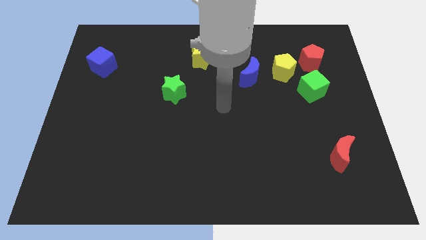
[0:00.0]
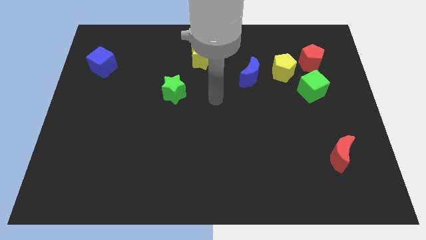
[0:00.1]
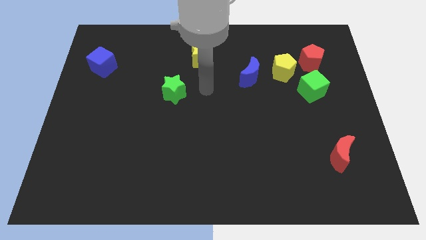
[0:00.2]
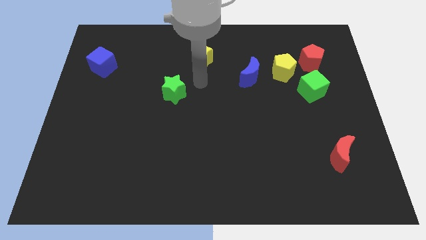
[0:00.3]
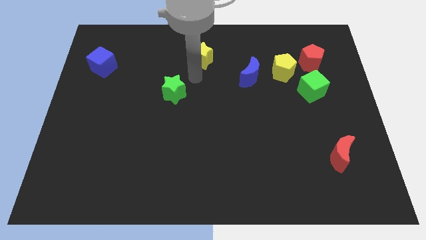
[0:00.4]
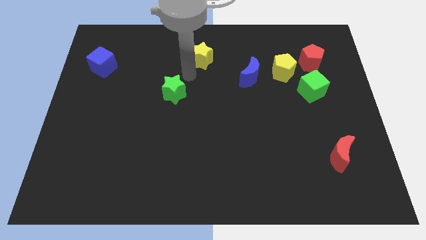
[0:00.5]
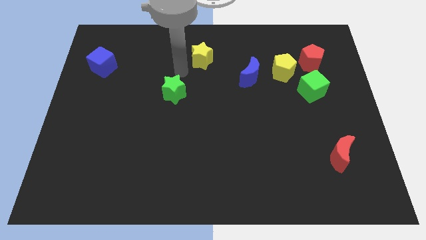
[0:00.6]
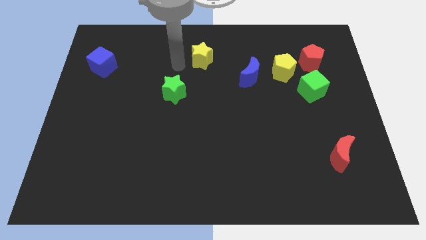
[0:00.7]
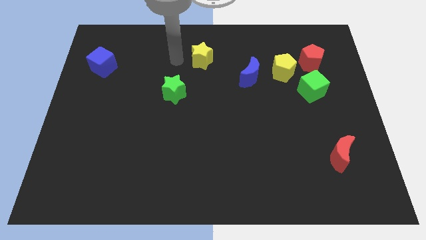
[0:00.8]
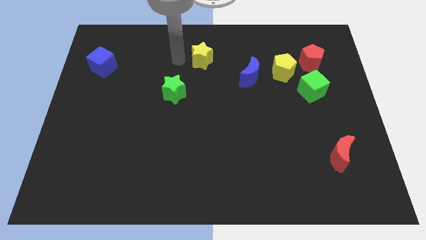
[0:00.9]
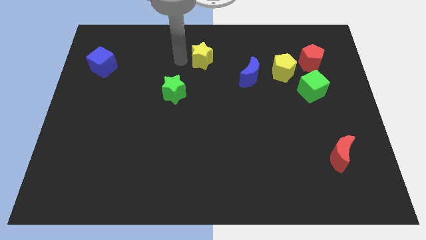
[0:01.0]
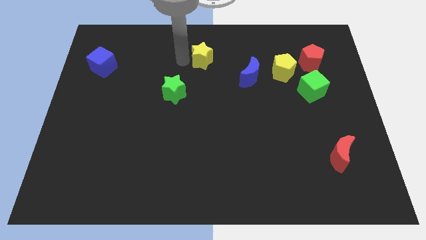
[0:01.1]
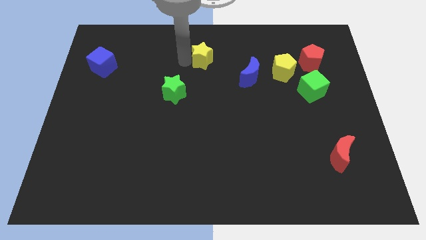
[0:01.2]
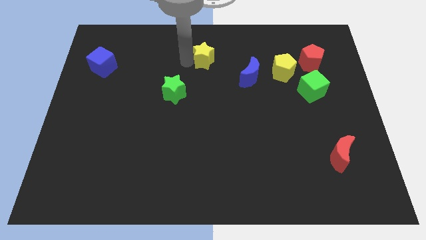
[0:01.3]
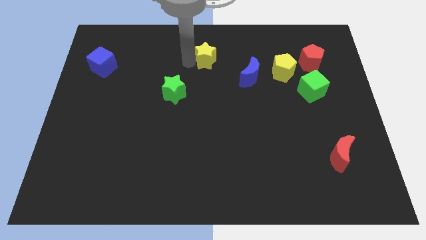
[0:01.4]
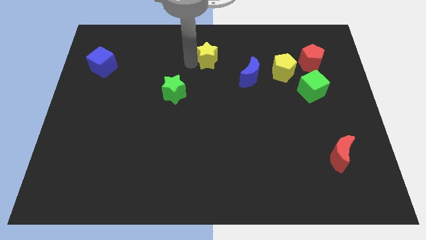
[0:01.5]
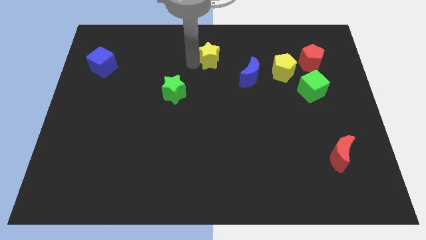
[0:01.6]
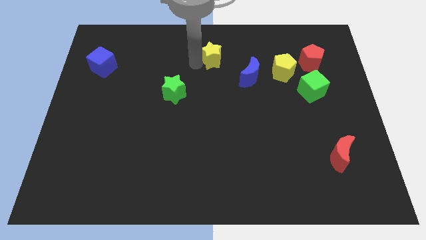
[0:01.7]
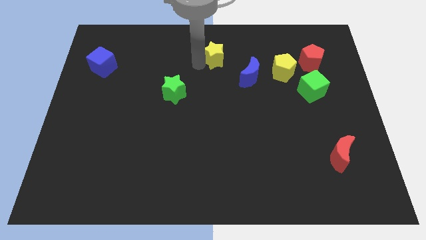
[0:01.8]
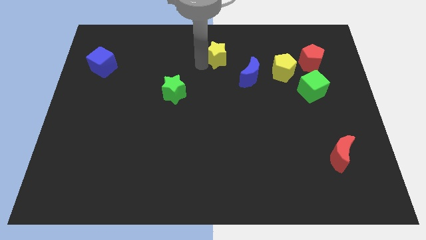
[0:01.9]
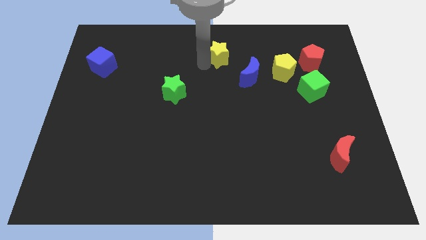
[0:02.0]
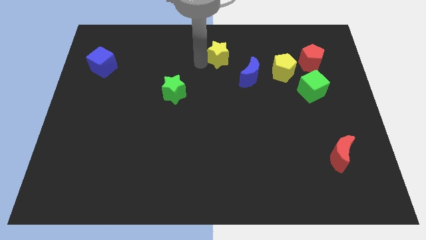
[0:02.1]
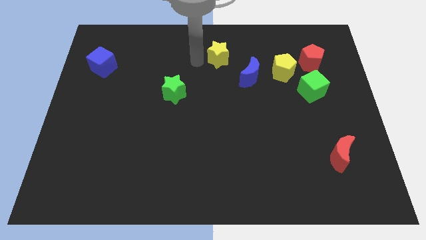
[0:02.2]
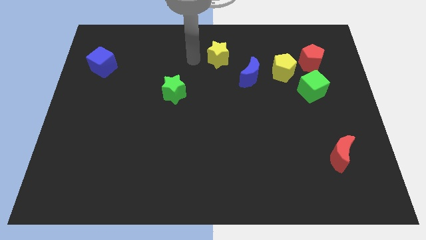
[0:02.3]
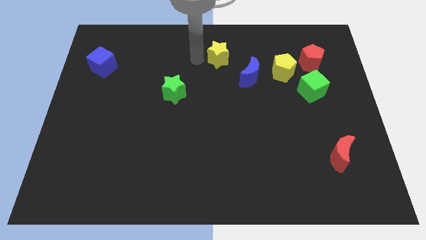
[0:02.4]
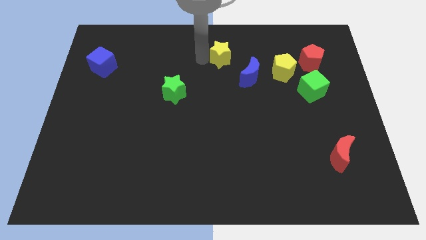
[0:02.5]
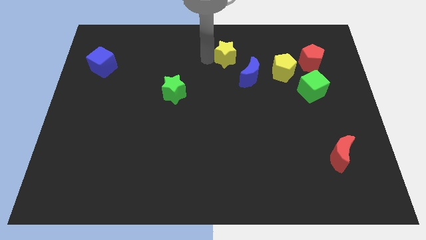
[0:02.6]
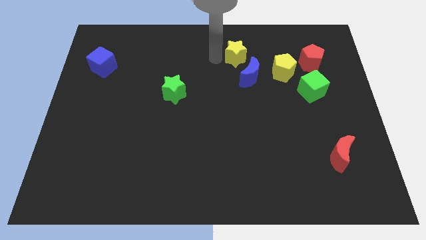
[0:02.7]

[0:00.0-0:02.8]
slightly push the yellow star to the right

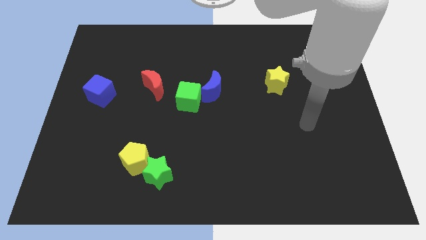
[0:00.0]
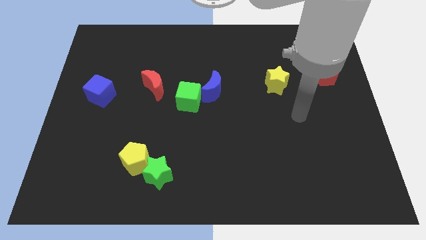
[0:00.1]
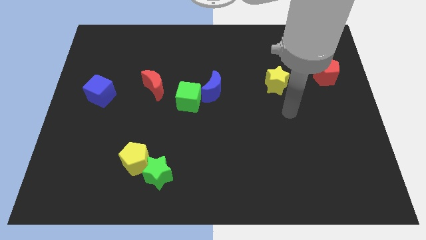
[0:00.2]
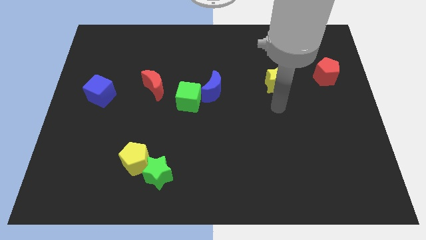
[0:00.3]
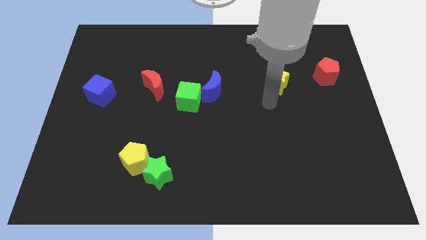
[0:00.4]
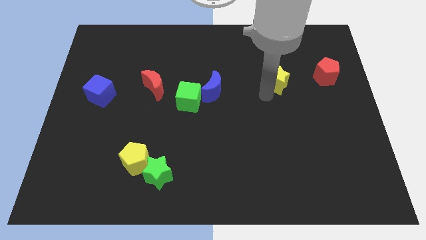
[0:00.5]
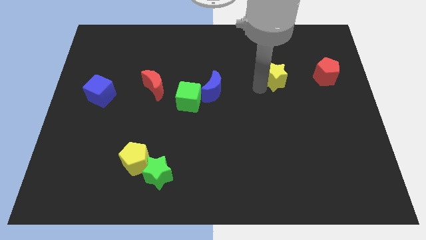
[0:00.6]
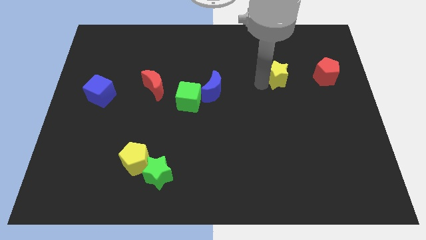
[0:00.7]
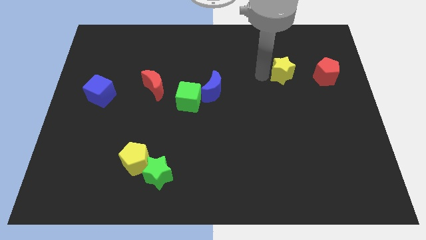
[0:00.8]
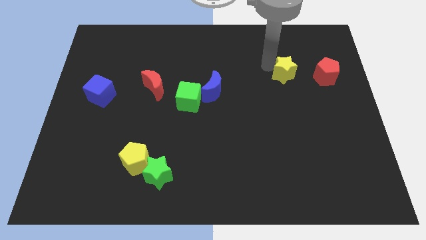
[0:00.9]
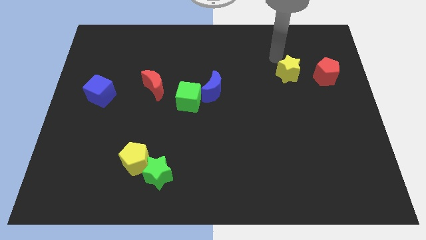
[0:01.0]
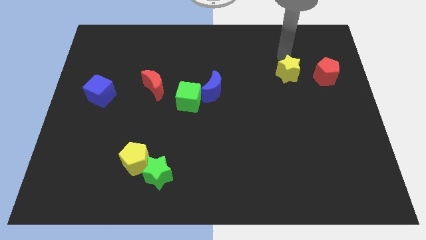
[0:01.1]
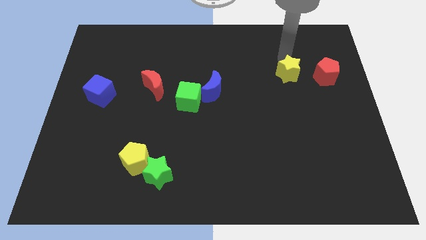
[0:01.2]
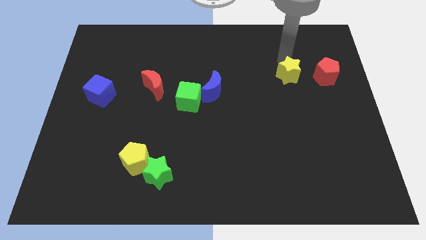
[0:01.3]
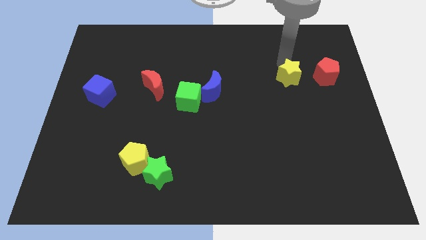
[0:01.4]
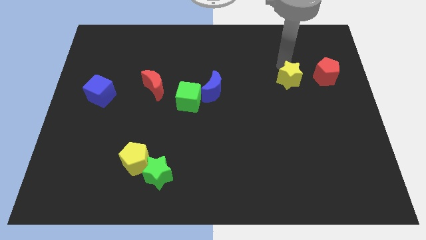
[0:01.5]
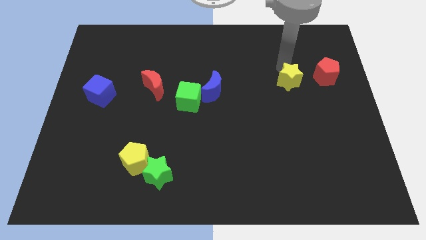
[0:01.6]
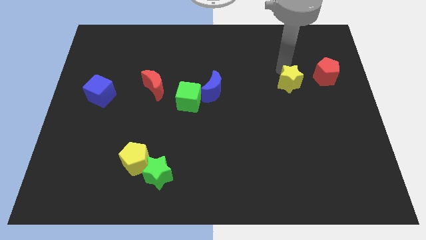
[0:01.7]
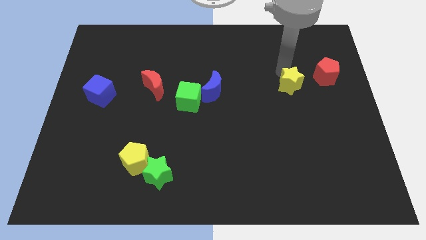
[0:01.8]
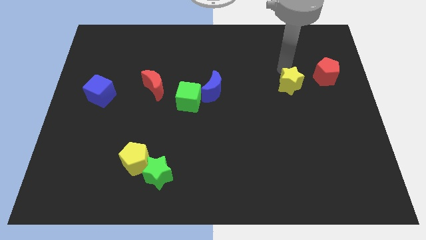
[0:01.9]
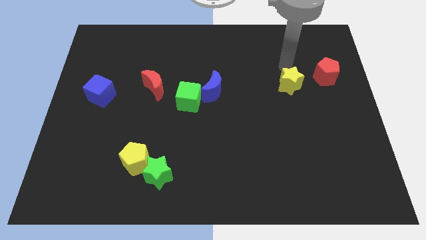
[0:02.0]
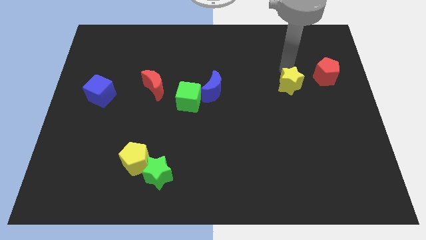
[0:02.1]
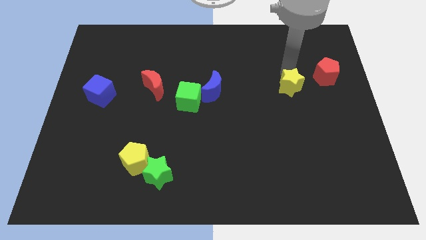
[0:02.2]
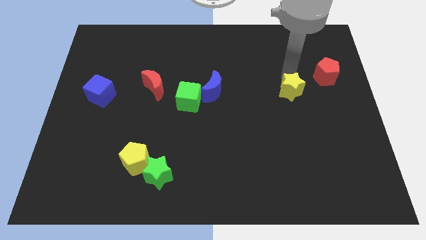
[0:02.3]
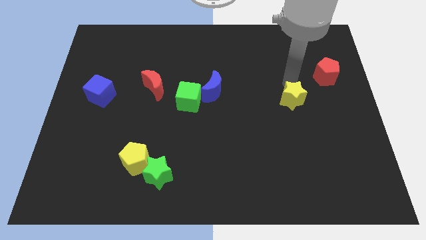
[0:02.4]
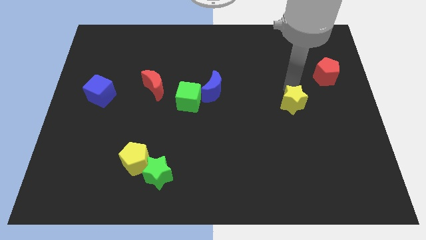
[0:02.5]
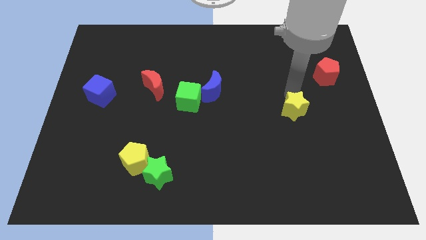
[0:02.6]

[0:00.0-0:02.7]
move the yellow star downwards slightly

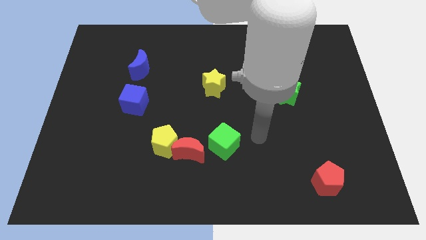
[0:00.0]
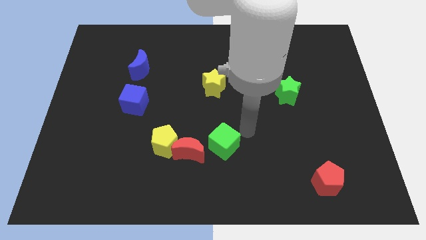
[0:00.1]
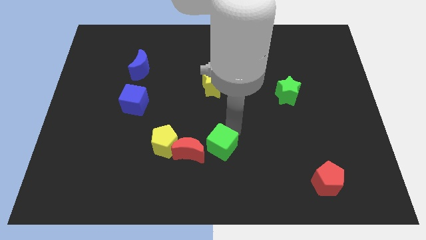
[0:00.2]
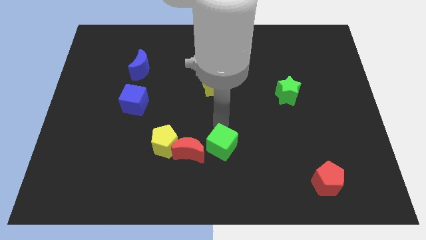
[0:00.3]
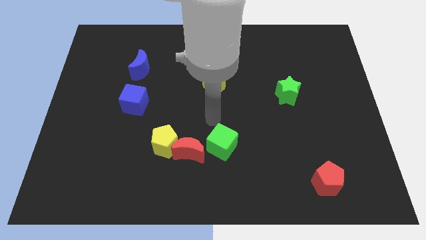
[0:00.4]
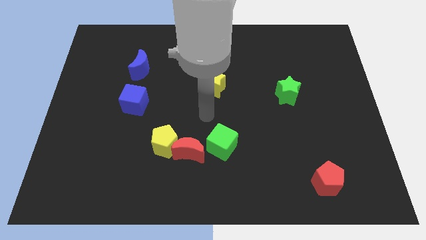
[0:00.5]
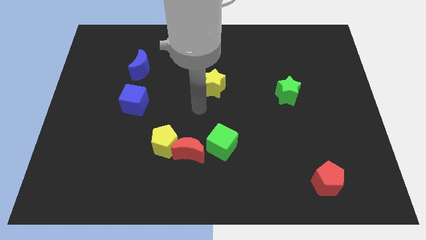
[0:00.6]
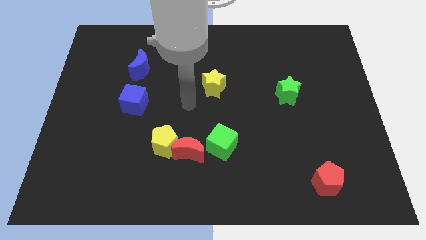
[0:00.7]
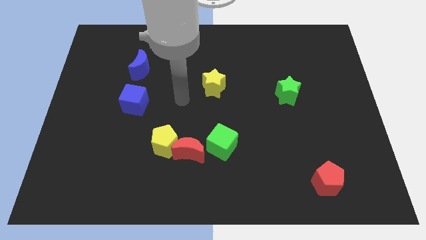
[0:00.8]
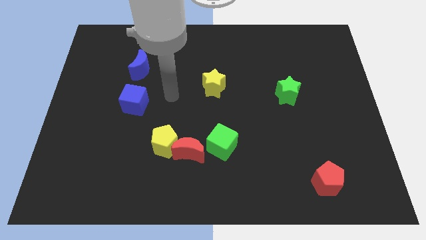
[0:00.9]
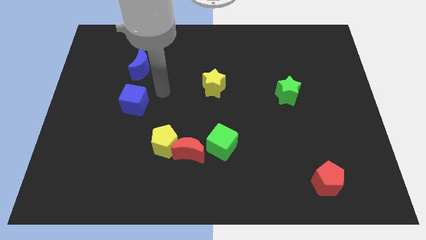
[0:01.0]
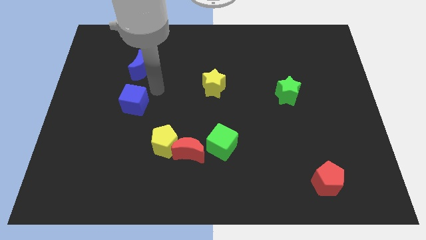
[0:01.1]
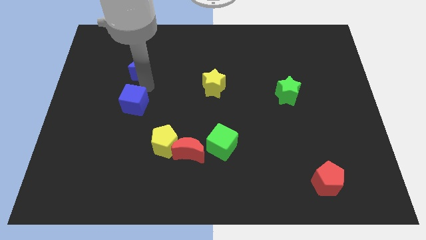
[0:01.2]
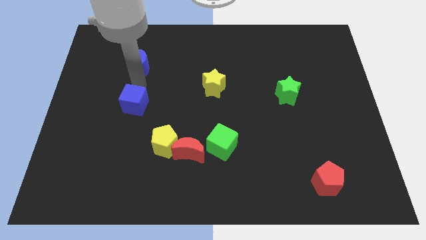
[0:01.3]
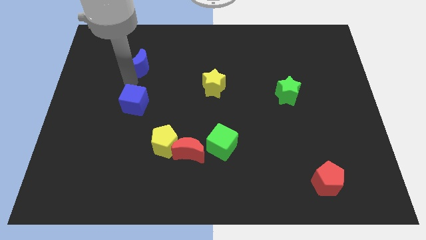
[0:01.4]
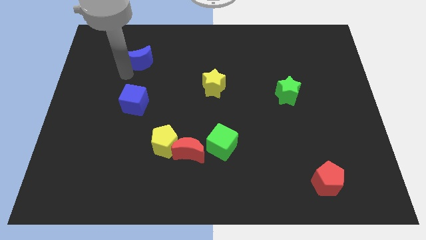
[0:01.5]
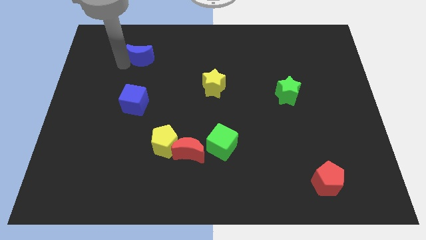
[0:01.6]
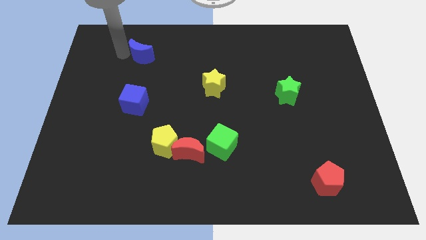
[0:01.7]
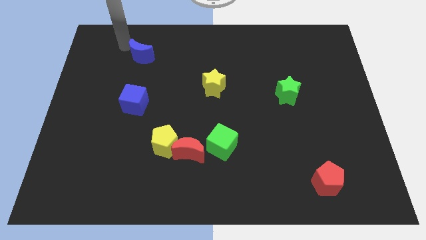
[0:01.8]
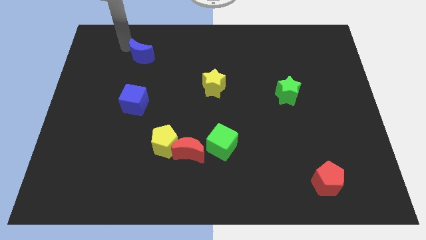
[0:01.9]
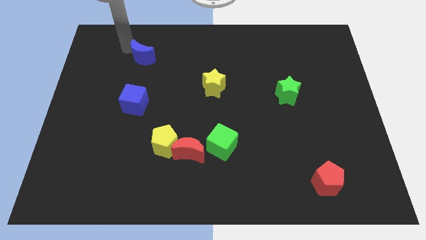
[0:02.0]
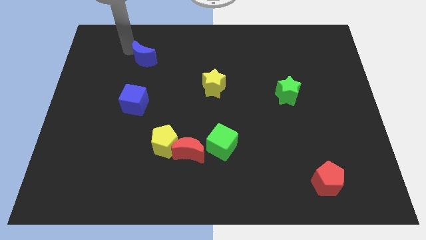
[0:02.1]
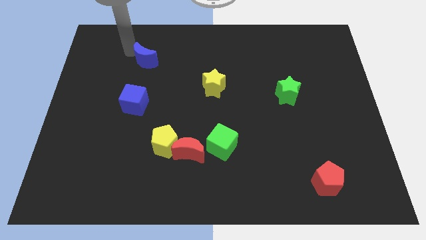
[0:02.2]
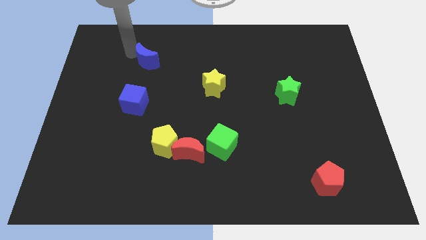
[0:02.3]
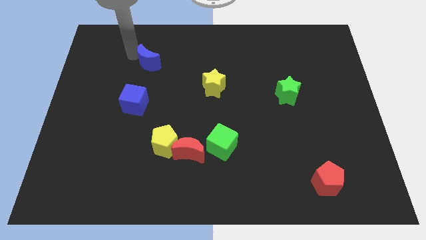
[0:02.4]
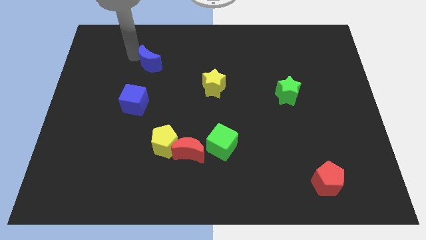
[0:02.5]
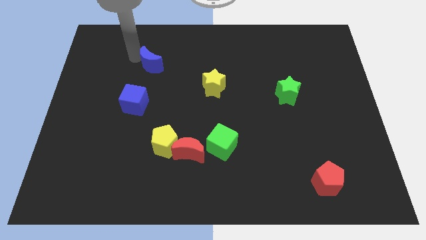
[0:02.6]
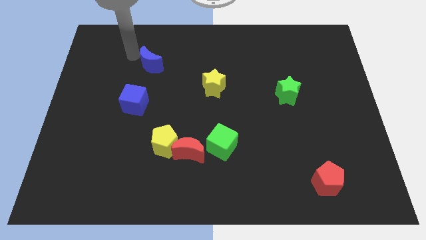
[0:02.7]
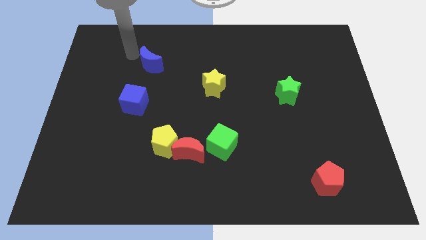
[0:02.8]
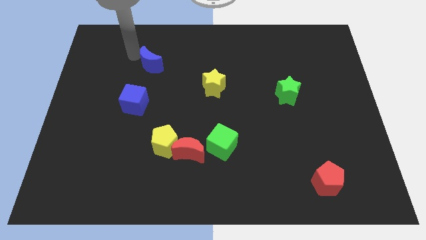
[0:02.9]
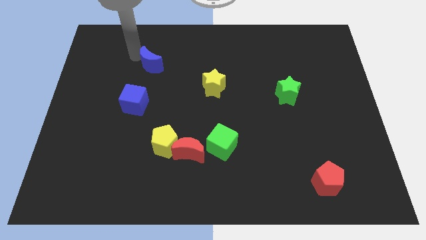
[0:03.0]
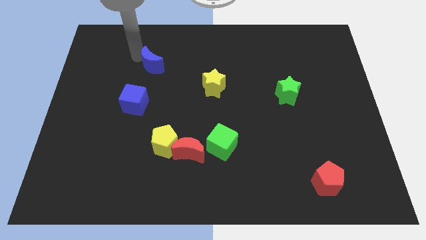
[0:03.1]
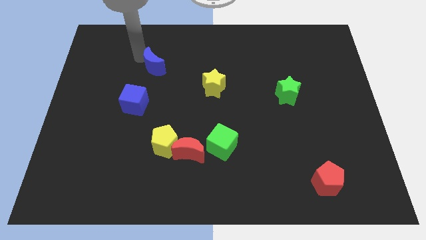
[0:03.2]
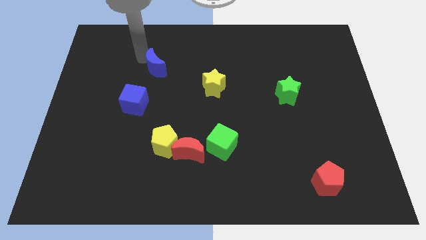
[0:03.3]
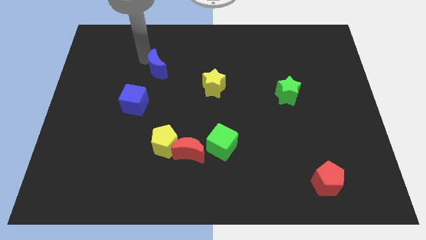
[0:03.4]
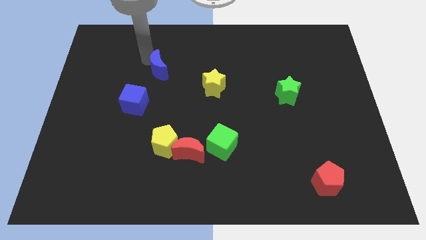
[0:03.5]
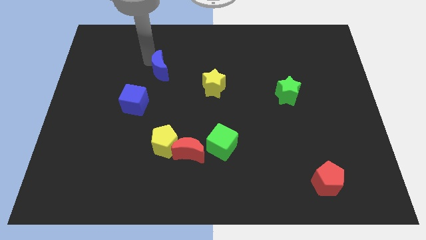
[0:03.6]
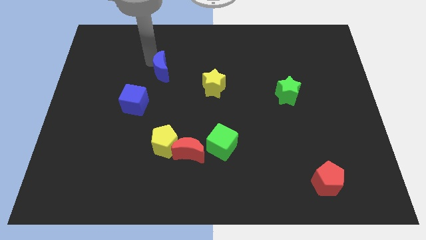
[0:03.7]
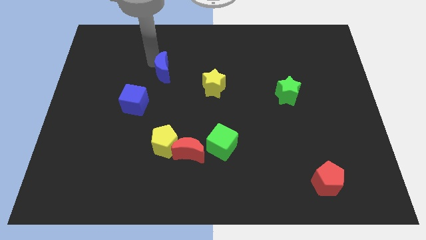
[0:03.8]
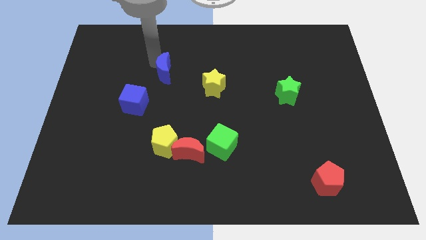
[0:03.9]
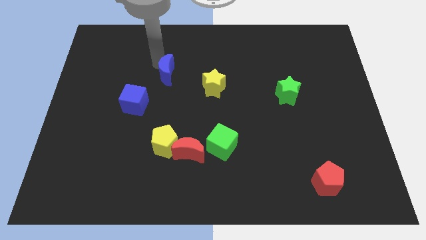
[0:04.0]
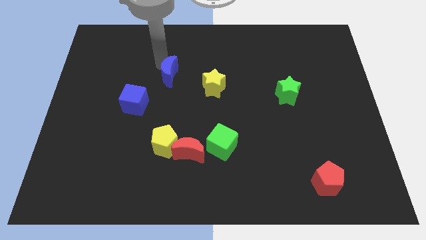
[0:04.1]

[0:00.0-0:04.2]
move the blue moon to the right somewhat
